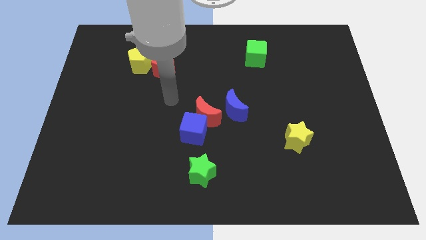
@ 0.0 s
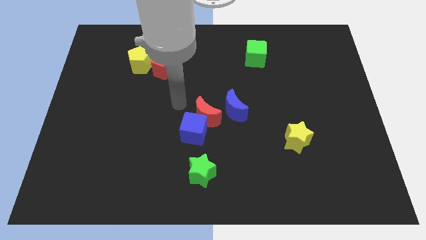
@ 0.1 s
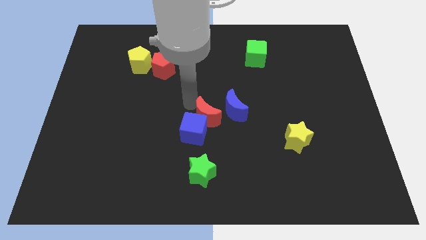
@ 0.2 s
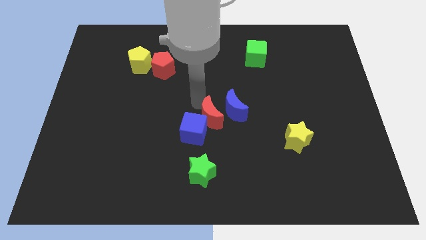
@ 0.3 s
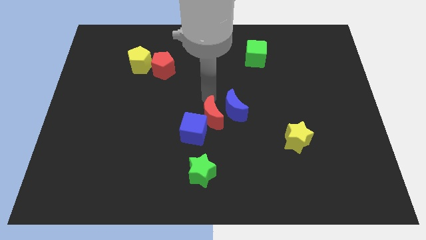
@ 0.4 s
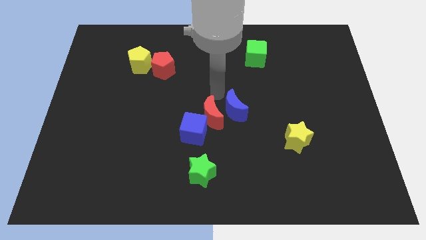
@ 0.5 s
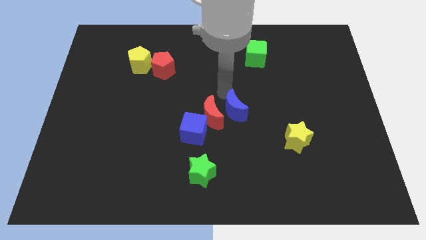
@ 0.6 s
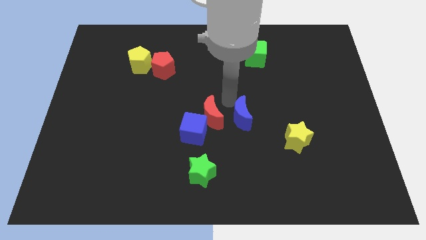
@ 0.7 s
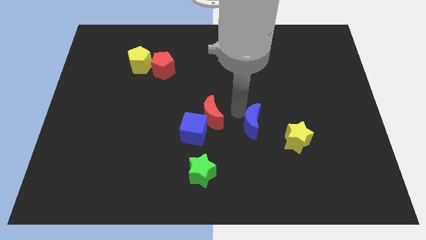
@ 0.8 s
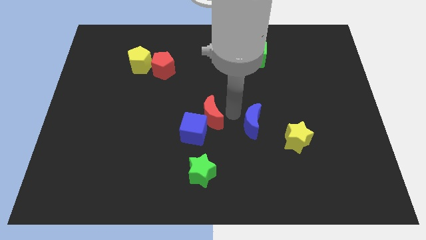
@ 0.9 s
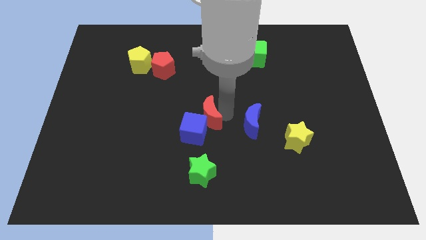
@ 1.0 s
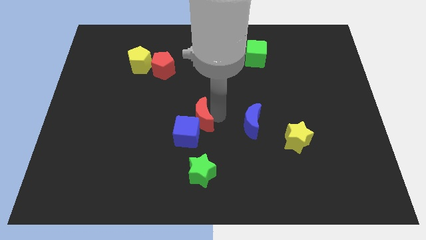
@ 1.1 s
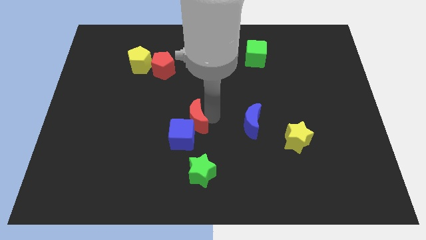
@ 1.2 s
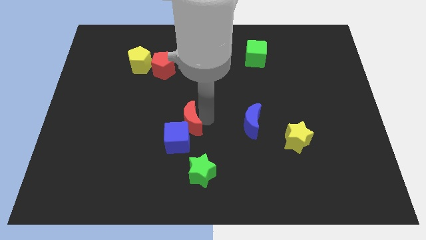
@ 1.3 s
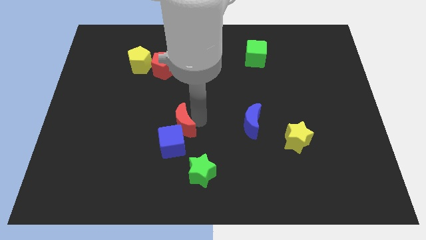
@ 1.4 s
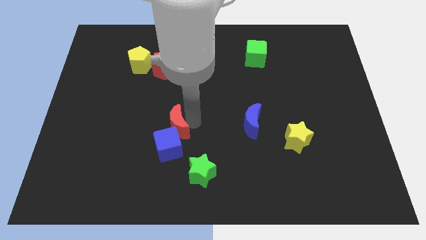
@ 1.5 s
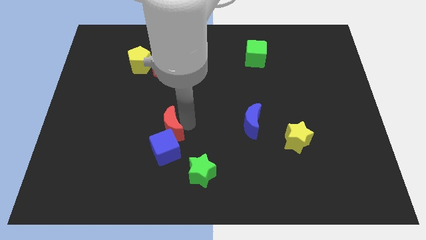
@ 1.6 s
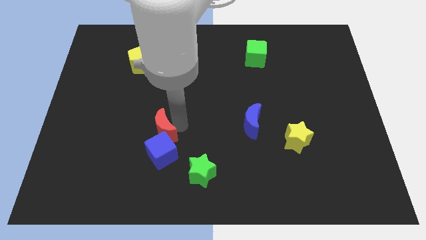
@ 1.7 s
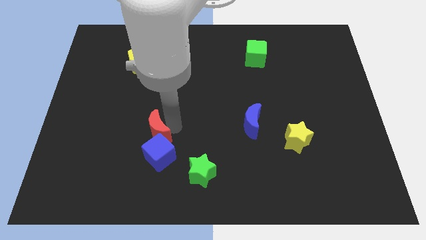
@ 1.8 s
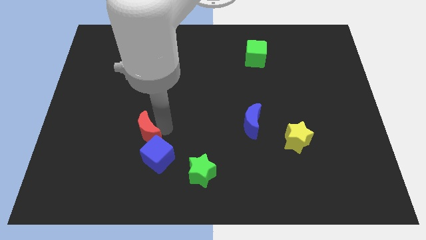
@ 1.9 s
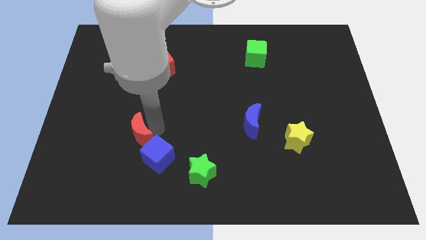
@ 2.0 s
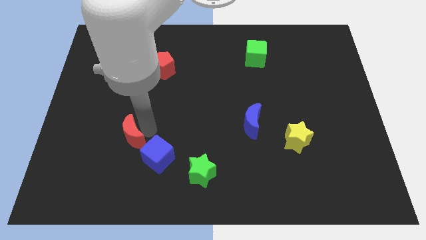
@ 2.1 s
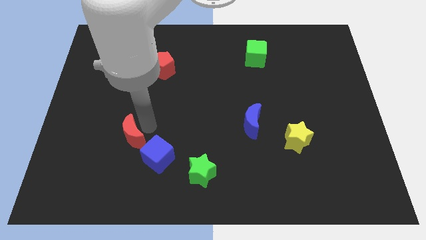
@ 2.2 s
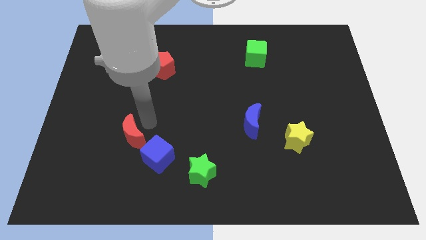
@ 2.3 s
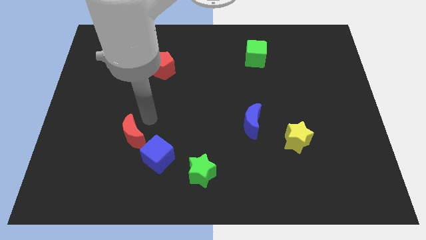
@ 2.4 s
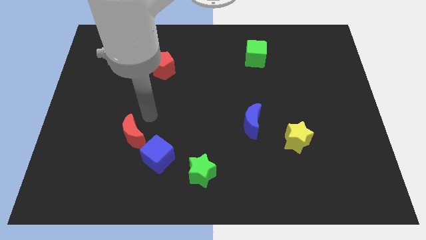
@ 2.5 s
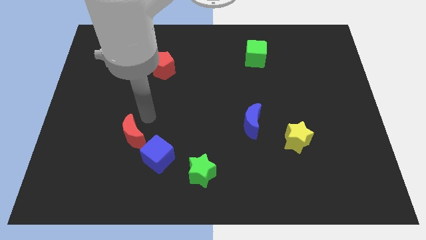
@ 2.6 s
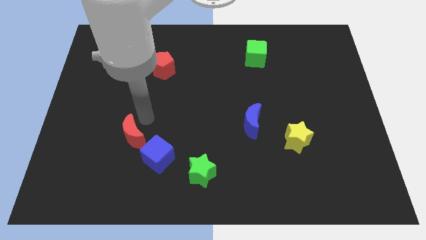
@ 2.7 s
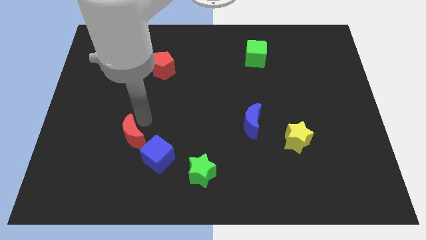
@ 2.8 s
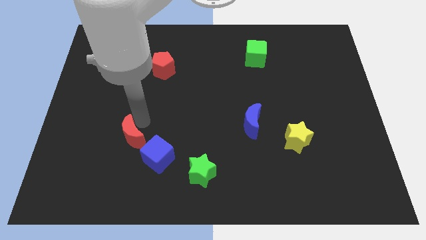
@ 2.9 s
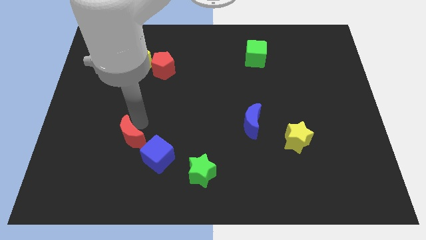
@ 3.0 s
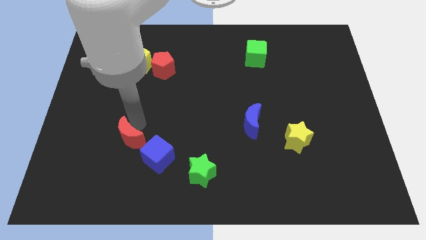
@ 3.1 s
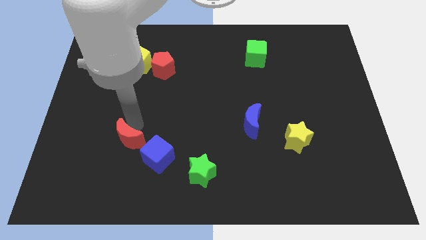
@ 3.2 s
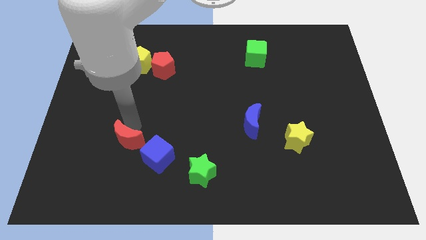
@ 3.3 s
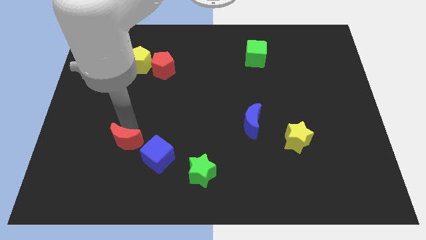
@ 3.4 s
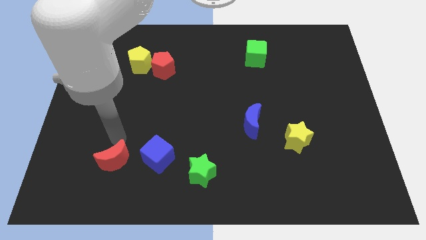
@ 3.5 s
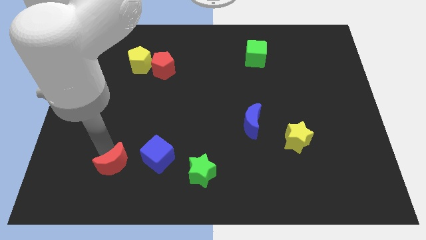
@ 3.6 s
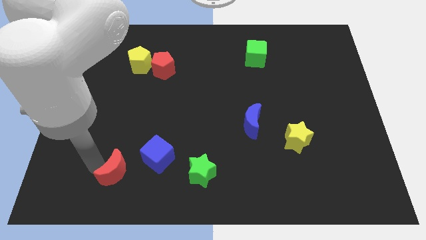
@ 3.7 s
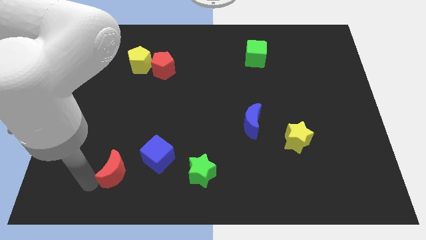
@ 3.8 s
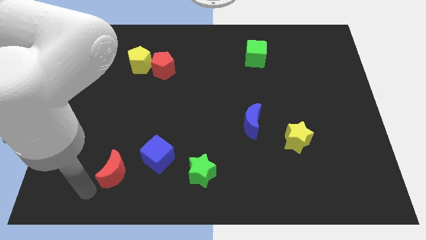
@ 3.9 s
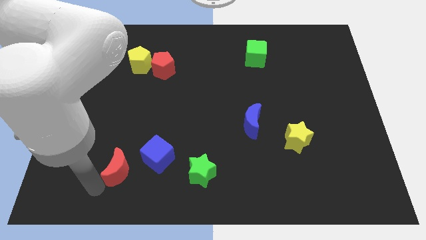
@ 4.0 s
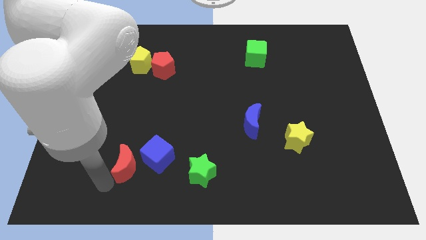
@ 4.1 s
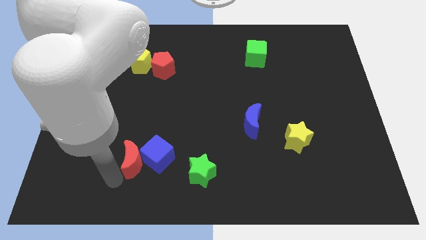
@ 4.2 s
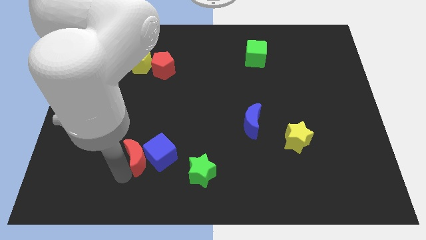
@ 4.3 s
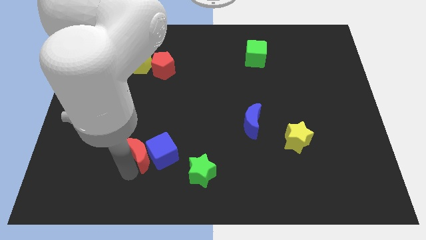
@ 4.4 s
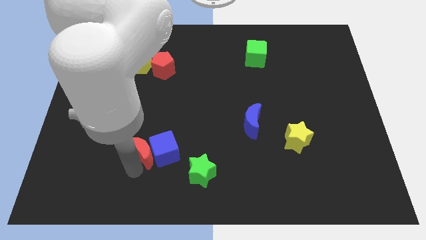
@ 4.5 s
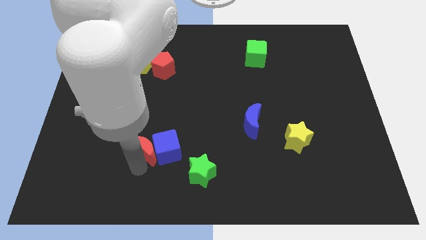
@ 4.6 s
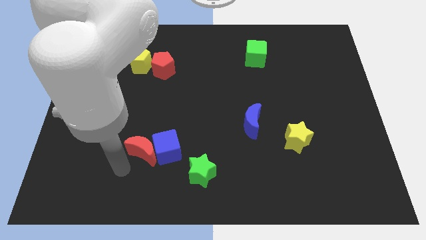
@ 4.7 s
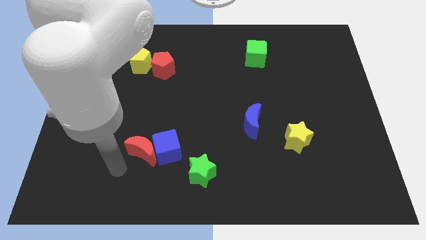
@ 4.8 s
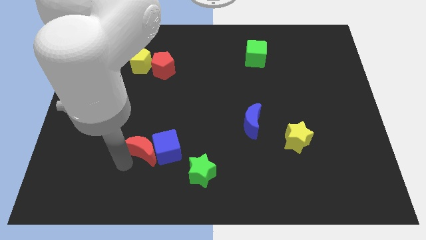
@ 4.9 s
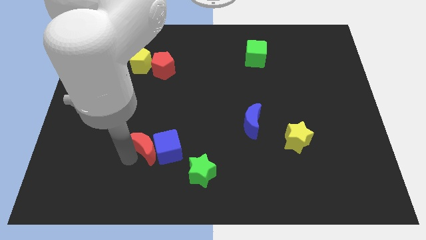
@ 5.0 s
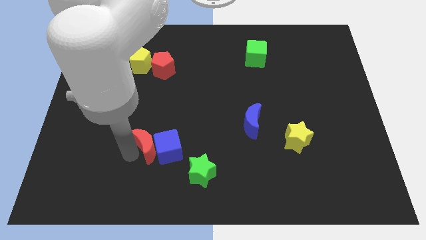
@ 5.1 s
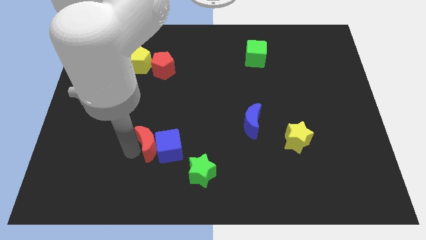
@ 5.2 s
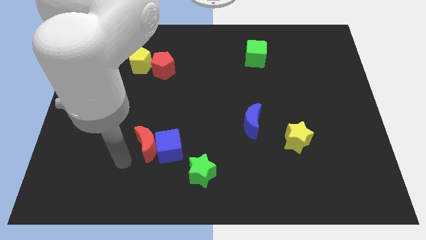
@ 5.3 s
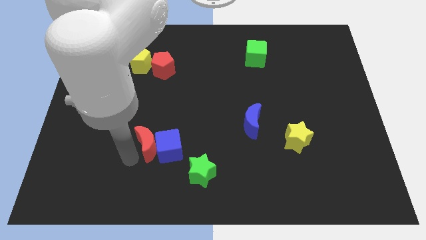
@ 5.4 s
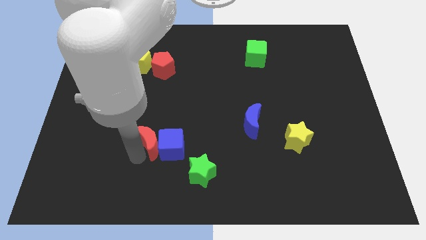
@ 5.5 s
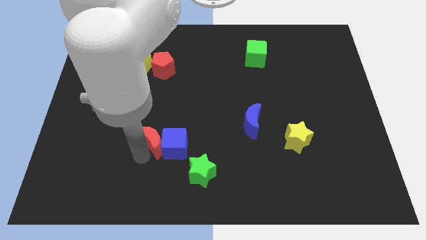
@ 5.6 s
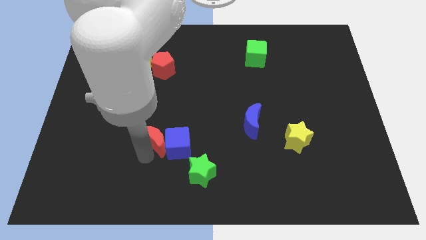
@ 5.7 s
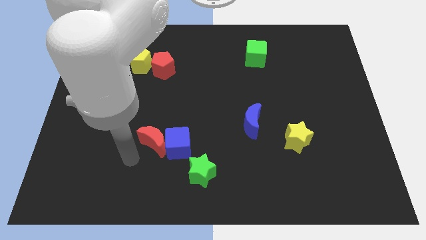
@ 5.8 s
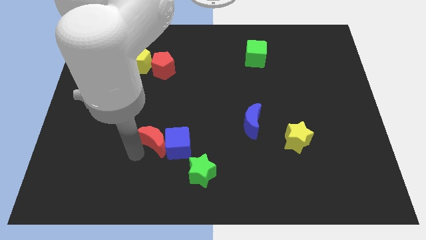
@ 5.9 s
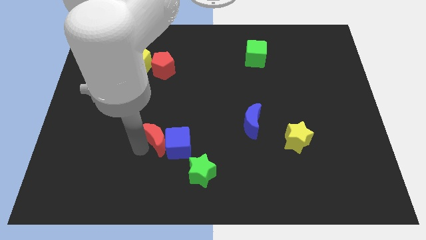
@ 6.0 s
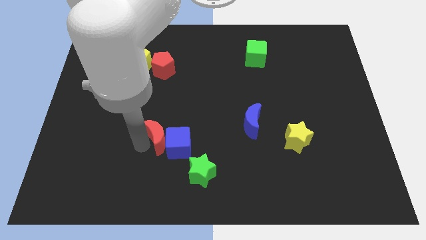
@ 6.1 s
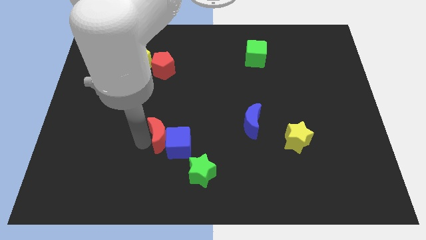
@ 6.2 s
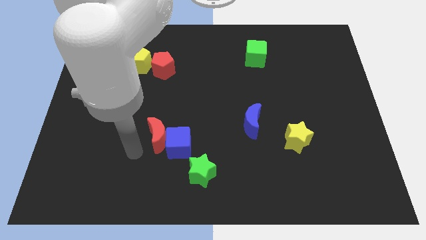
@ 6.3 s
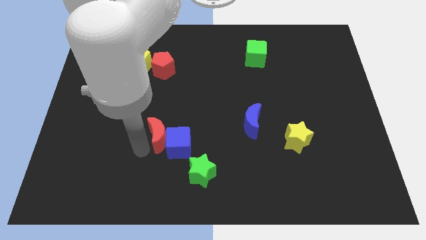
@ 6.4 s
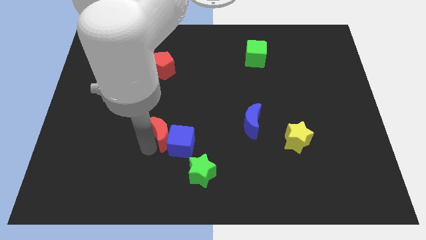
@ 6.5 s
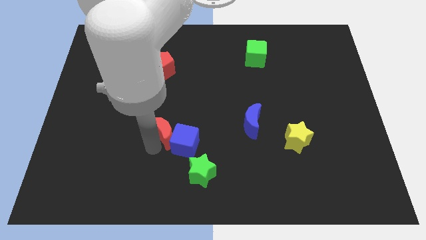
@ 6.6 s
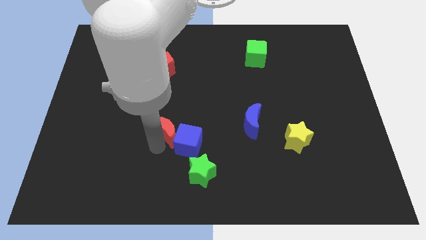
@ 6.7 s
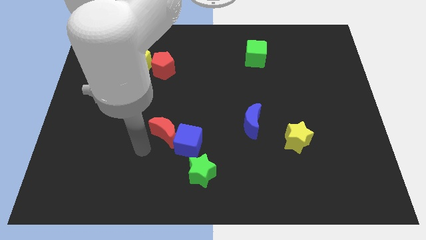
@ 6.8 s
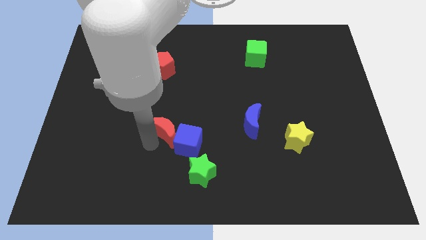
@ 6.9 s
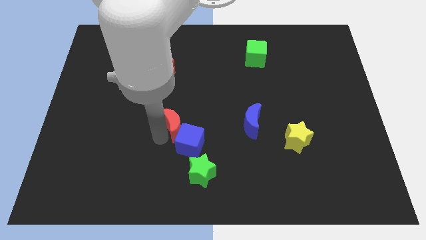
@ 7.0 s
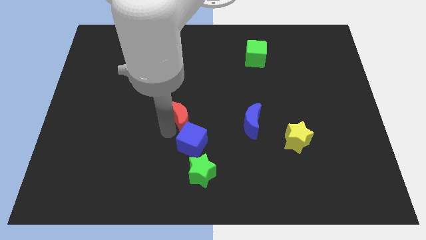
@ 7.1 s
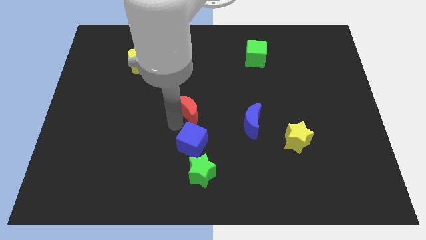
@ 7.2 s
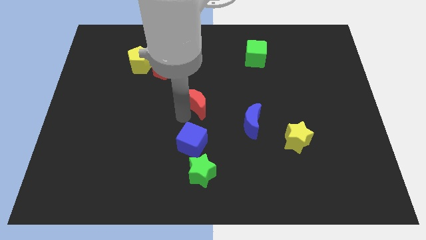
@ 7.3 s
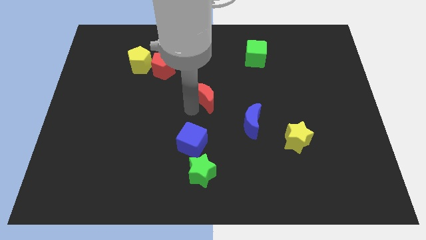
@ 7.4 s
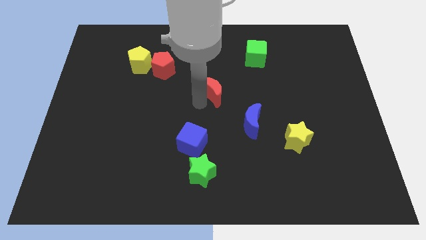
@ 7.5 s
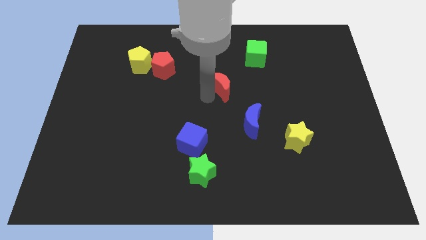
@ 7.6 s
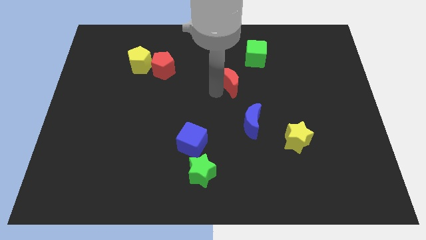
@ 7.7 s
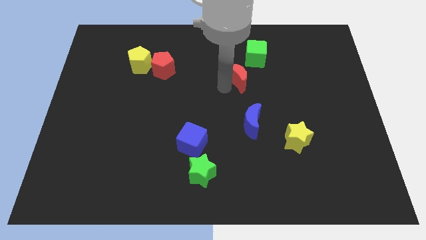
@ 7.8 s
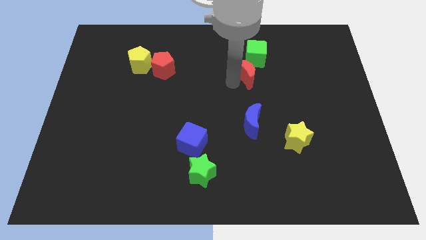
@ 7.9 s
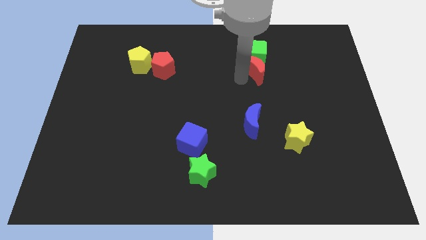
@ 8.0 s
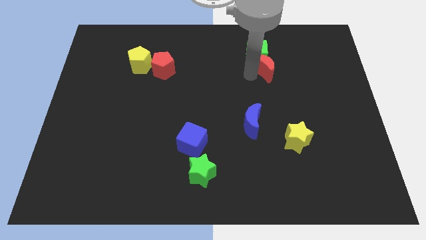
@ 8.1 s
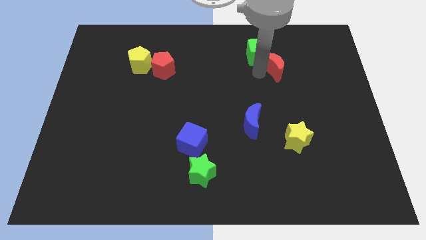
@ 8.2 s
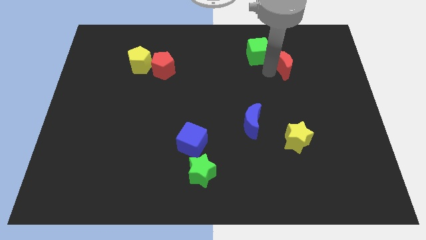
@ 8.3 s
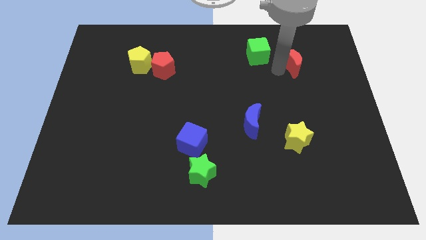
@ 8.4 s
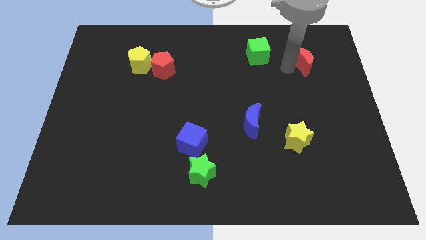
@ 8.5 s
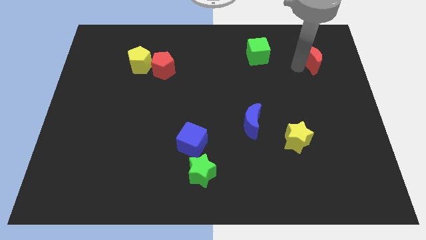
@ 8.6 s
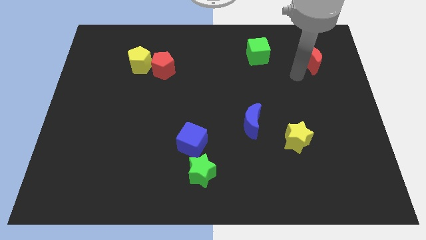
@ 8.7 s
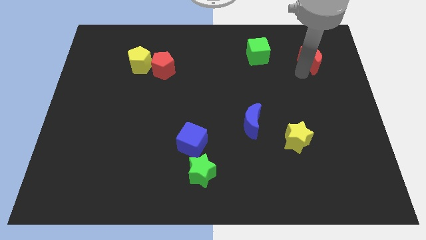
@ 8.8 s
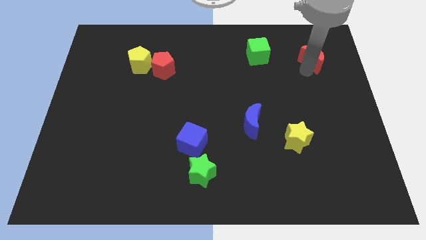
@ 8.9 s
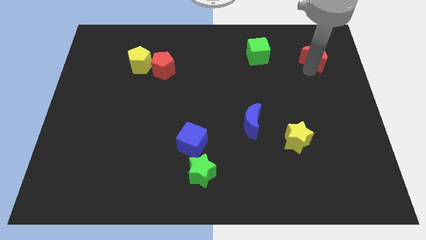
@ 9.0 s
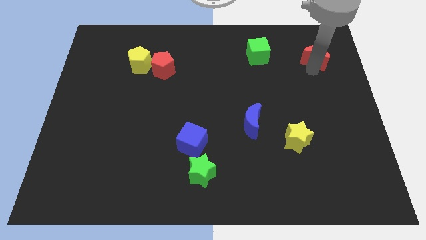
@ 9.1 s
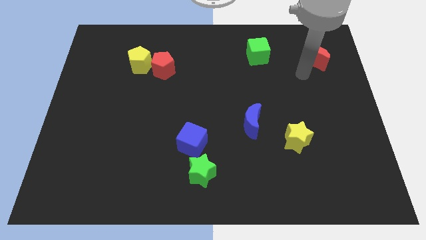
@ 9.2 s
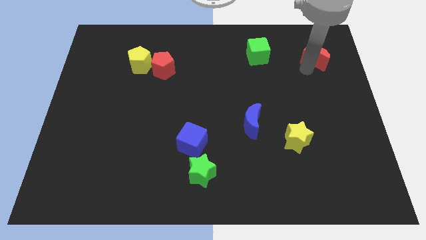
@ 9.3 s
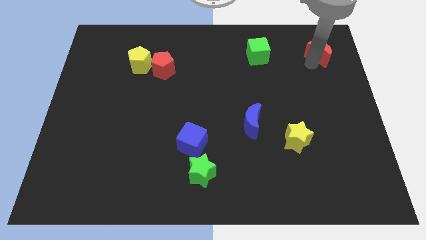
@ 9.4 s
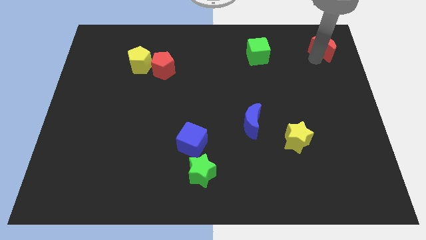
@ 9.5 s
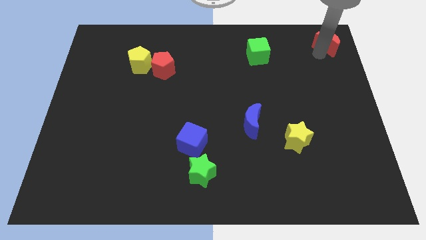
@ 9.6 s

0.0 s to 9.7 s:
put the red moon to the top right
